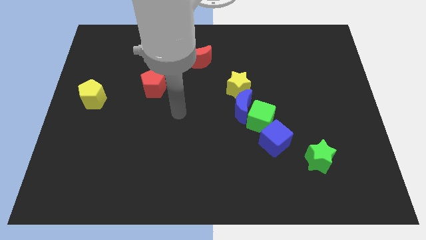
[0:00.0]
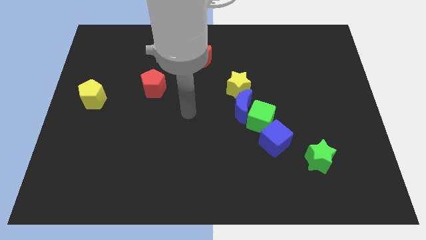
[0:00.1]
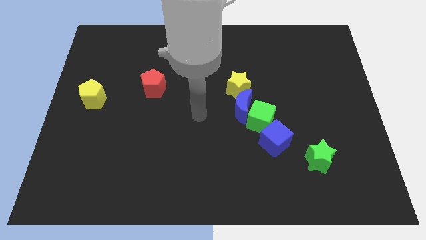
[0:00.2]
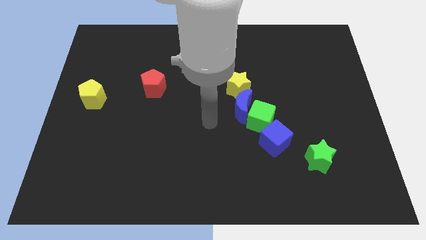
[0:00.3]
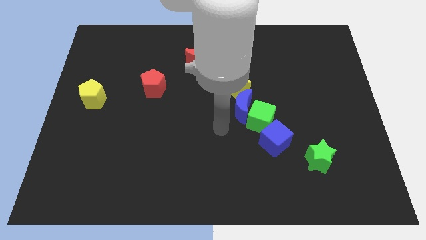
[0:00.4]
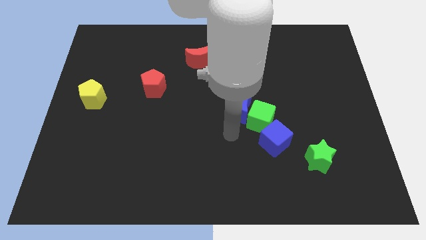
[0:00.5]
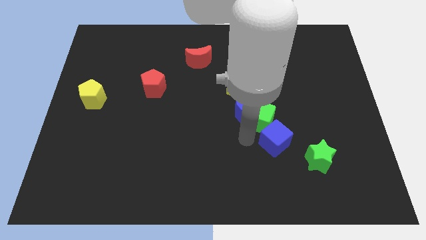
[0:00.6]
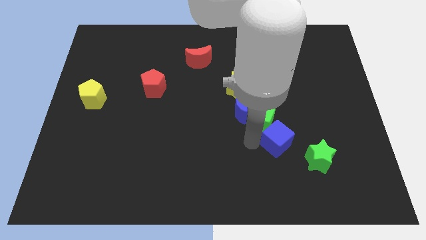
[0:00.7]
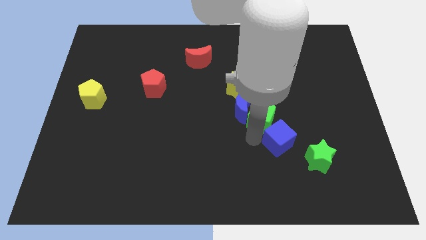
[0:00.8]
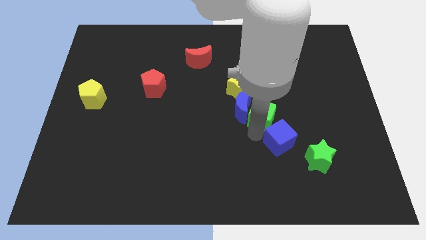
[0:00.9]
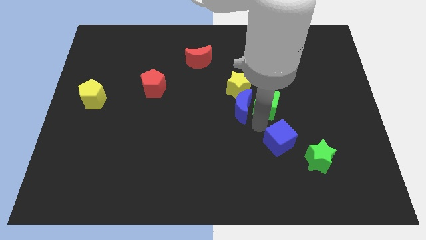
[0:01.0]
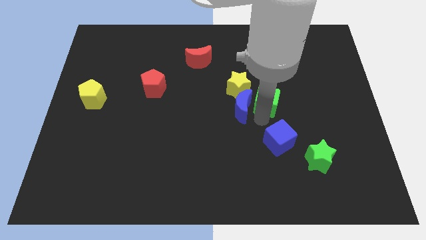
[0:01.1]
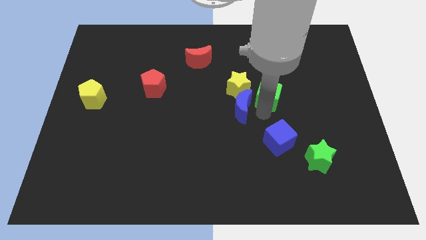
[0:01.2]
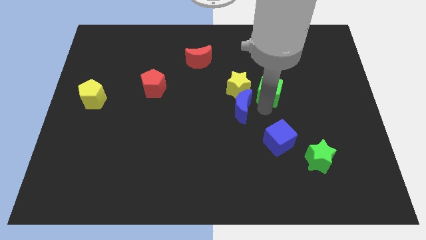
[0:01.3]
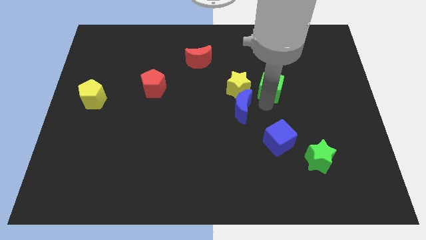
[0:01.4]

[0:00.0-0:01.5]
move the green cube away from the blue moon and blue cube

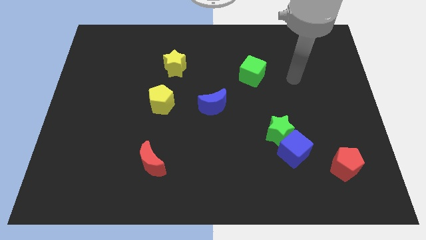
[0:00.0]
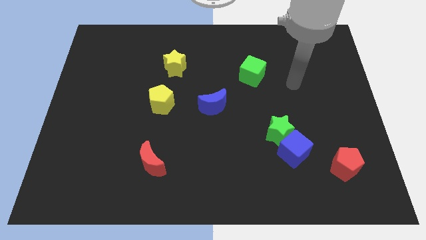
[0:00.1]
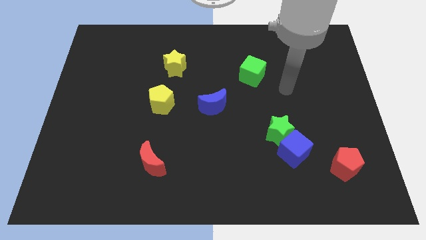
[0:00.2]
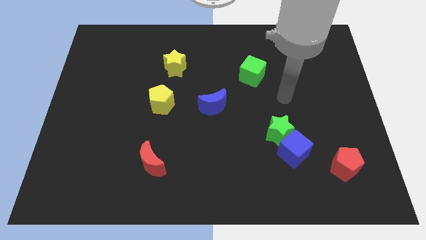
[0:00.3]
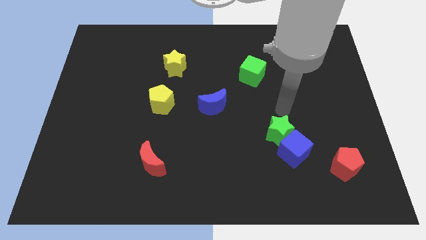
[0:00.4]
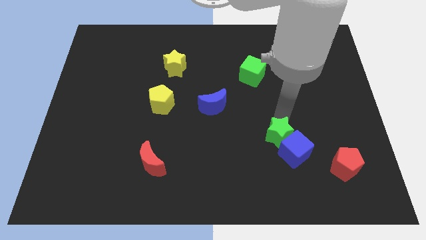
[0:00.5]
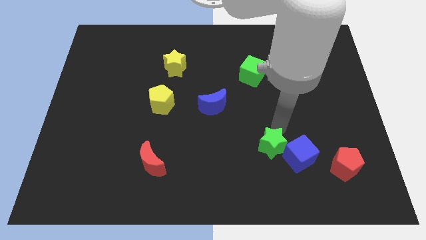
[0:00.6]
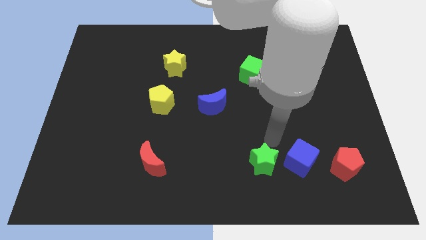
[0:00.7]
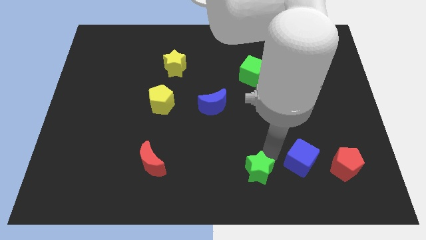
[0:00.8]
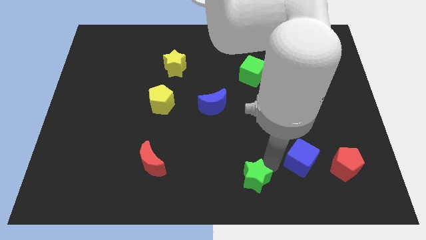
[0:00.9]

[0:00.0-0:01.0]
separate the blue cube from the green star

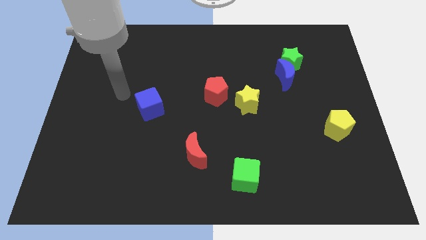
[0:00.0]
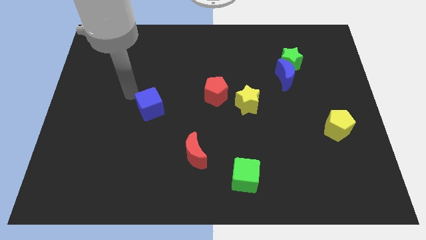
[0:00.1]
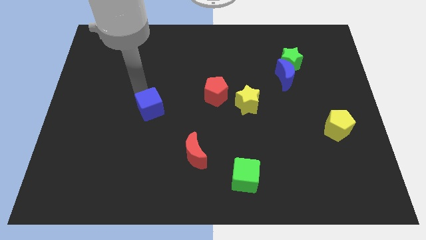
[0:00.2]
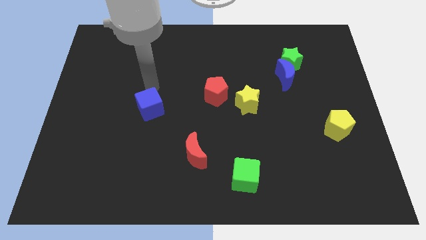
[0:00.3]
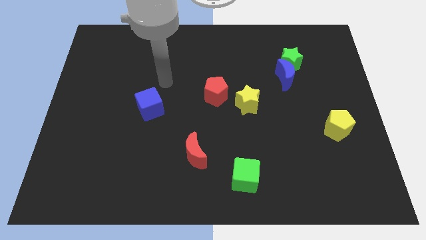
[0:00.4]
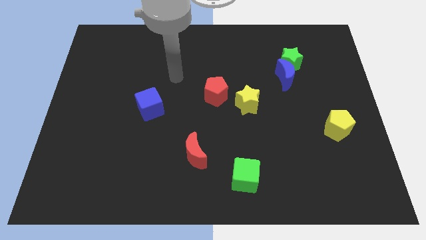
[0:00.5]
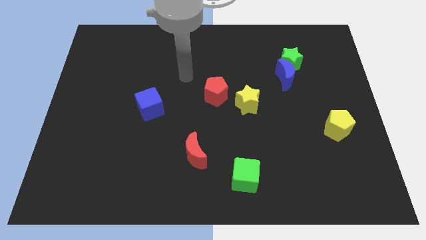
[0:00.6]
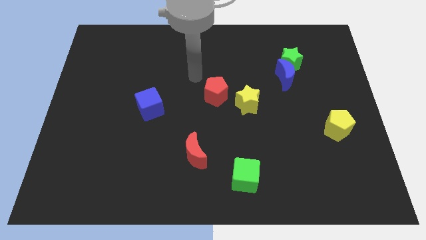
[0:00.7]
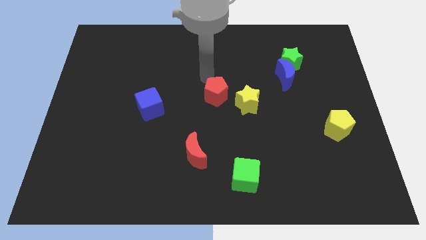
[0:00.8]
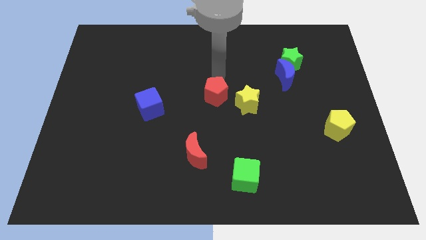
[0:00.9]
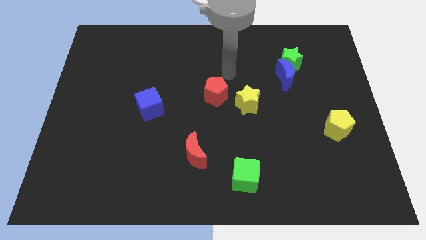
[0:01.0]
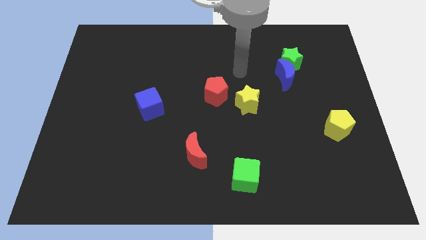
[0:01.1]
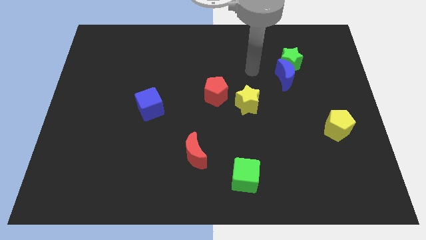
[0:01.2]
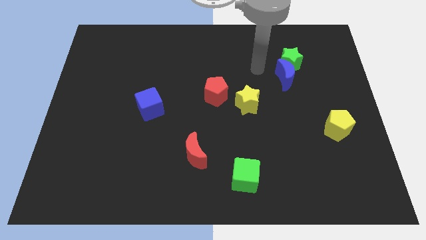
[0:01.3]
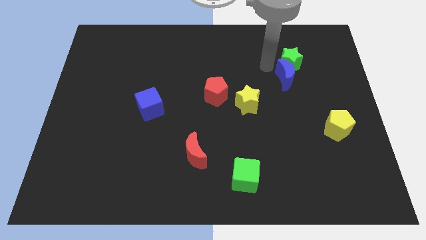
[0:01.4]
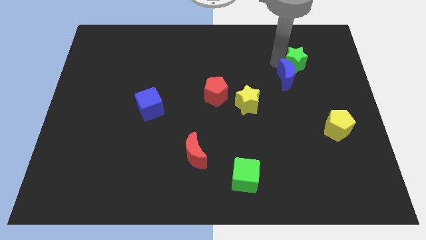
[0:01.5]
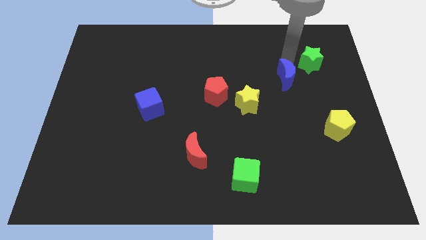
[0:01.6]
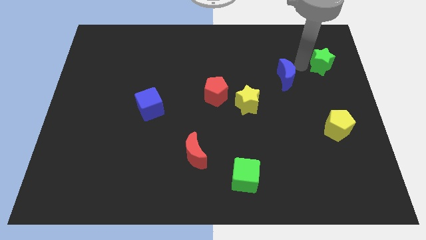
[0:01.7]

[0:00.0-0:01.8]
pull the blue moon apart from the green star

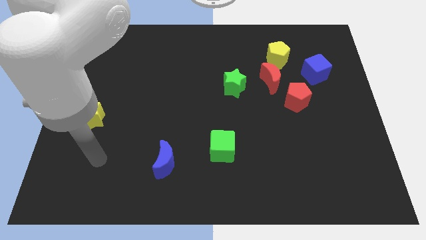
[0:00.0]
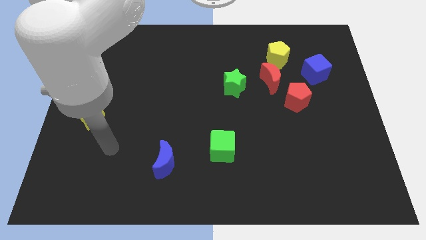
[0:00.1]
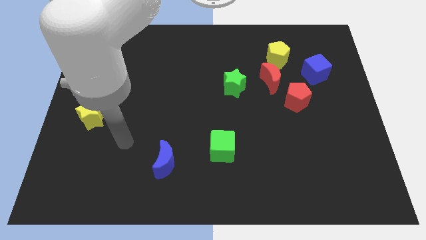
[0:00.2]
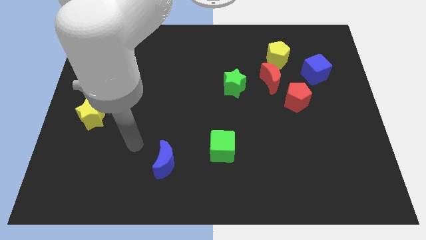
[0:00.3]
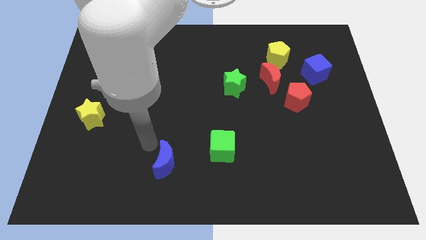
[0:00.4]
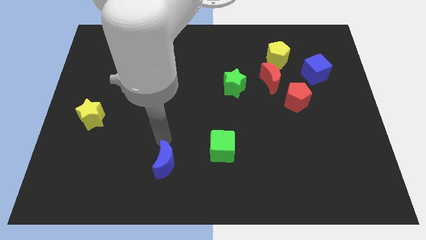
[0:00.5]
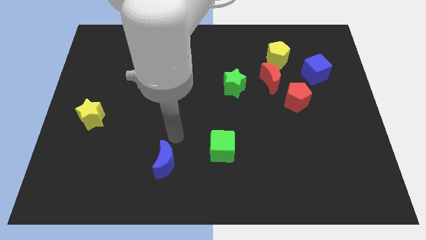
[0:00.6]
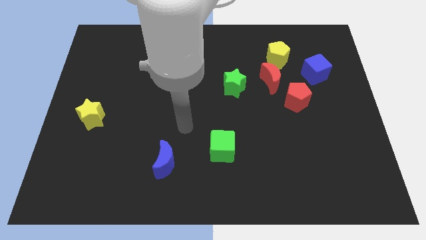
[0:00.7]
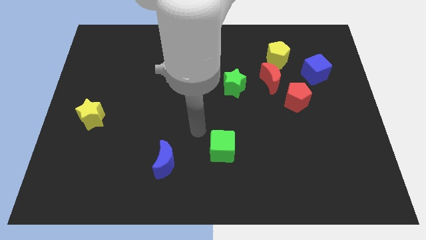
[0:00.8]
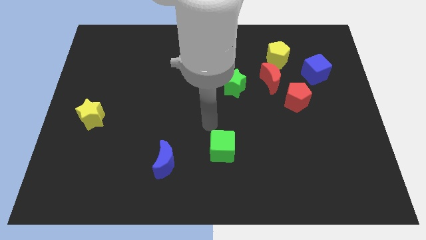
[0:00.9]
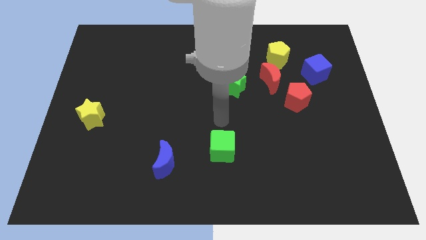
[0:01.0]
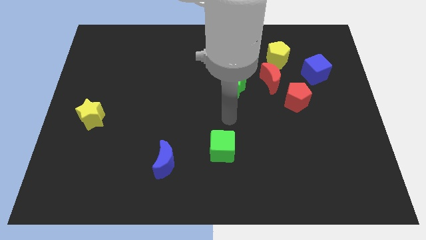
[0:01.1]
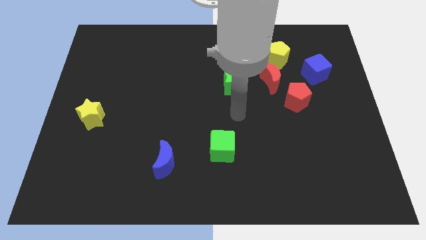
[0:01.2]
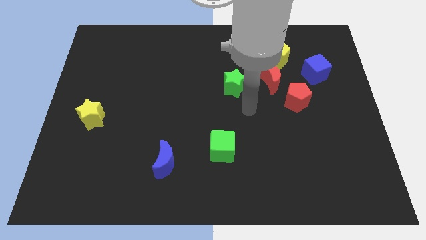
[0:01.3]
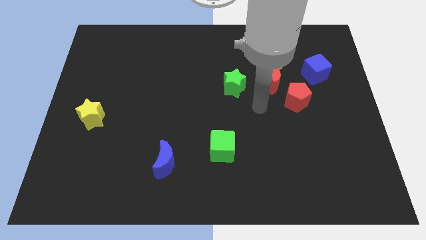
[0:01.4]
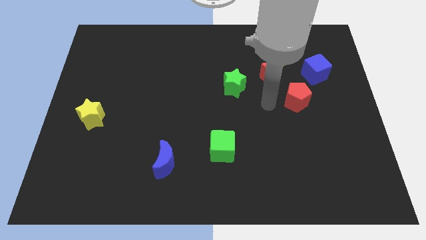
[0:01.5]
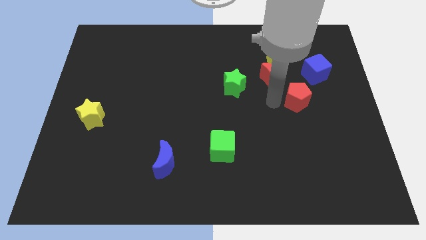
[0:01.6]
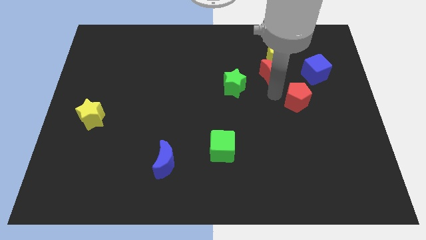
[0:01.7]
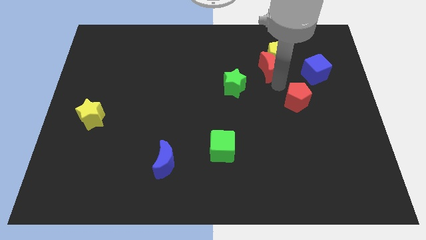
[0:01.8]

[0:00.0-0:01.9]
move the red pentagon away from the red moon

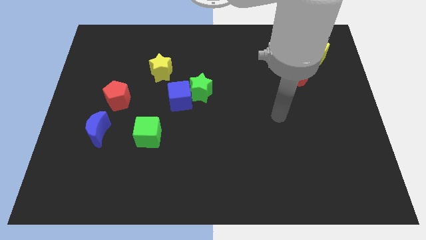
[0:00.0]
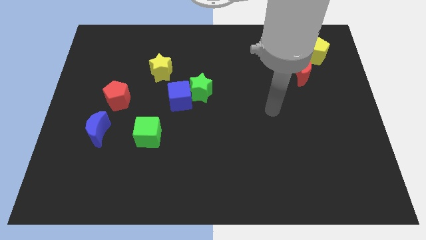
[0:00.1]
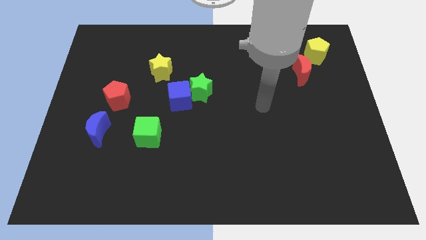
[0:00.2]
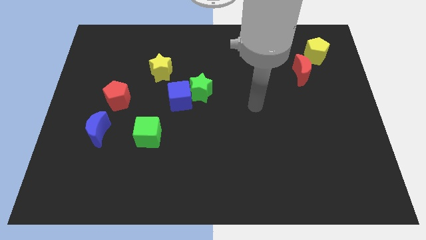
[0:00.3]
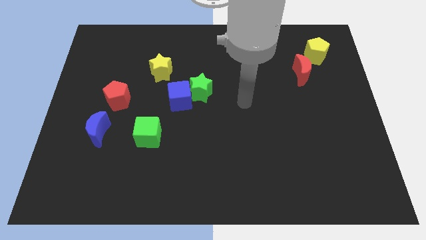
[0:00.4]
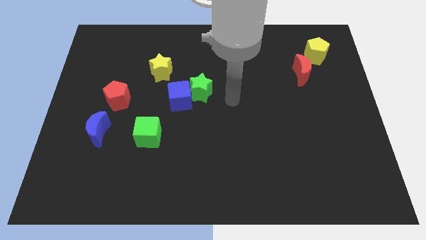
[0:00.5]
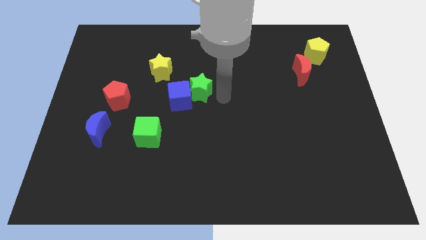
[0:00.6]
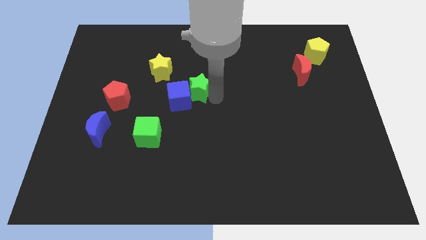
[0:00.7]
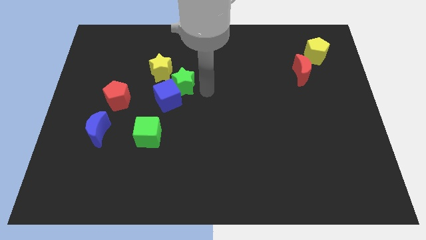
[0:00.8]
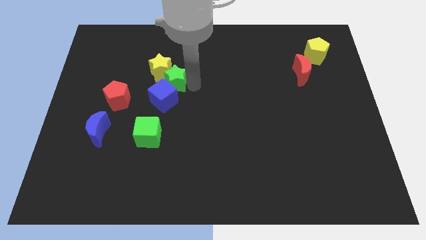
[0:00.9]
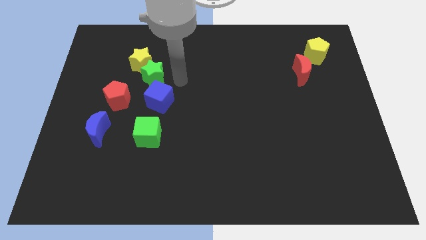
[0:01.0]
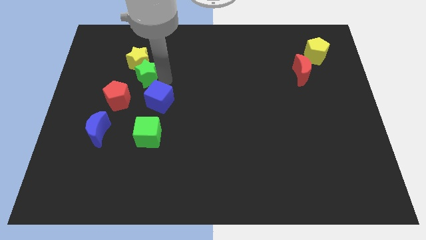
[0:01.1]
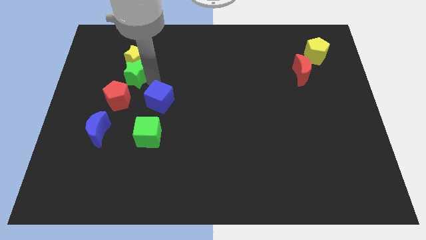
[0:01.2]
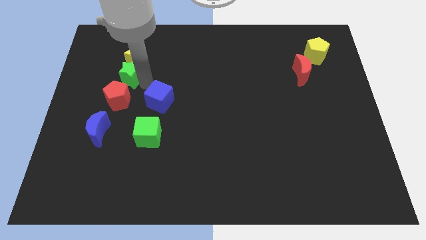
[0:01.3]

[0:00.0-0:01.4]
move the blue cube away from the green star

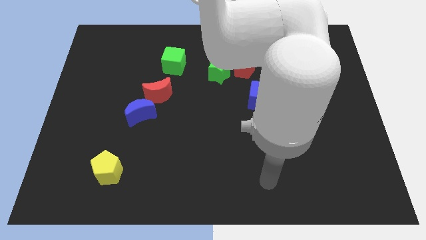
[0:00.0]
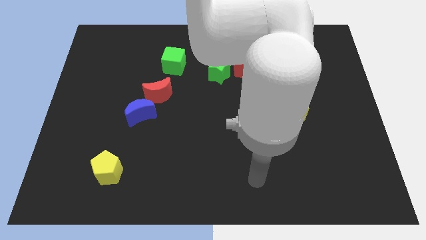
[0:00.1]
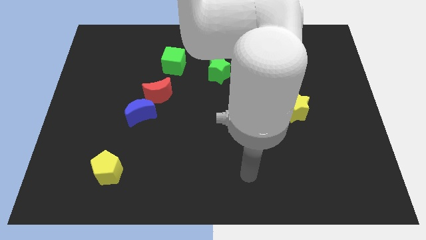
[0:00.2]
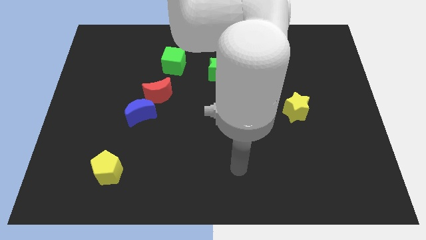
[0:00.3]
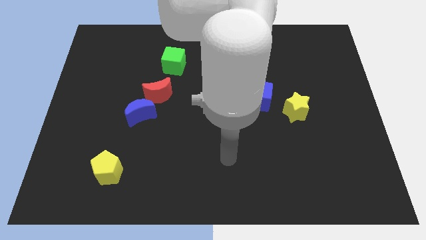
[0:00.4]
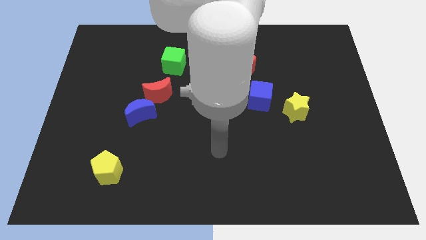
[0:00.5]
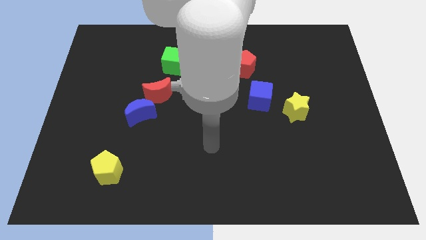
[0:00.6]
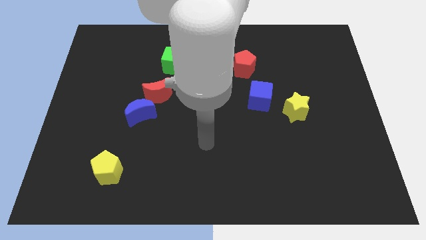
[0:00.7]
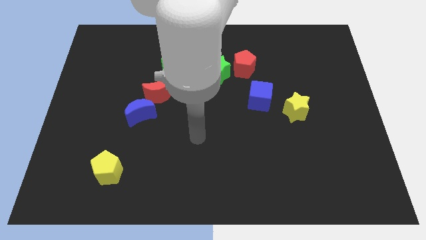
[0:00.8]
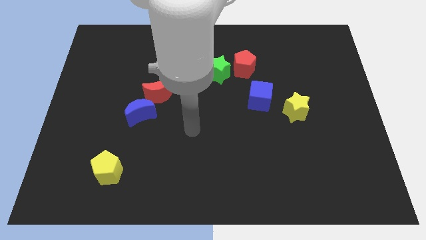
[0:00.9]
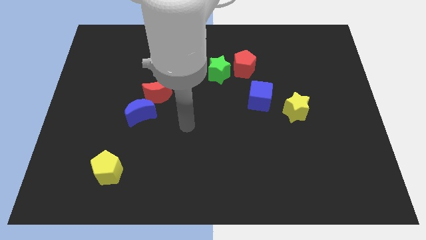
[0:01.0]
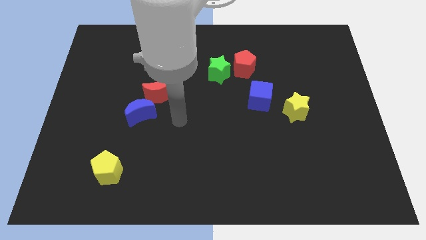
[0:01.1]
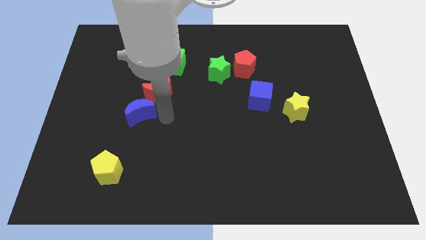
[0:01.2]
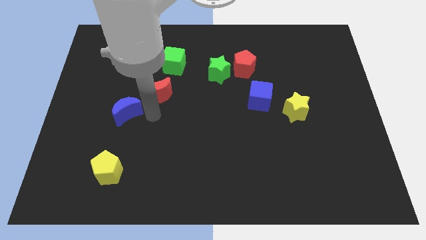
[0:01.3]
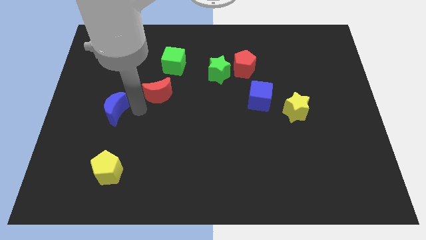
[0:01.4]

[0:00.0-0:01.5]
pull the red moon apart from the blue moon
